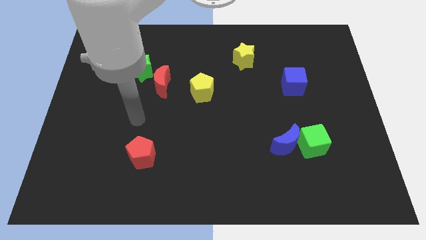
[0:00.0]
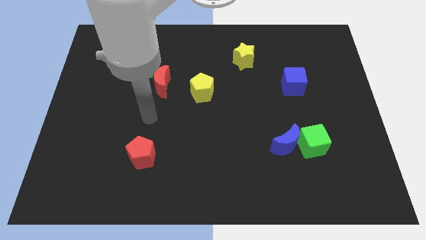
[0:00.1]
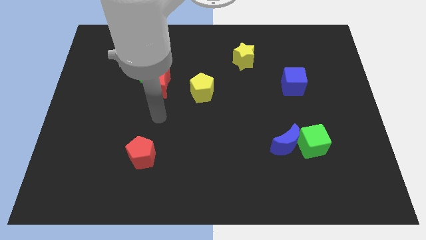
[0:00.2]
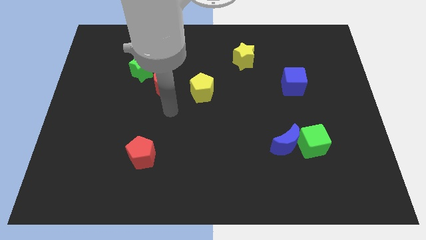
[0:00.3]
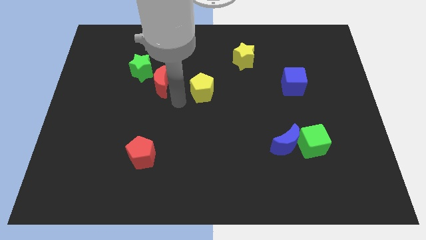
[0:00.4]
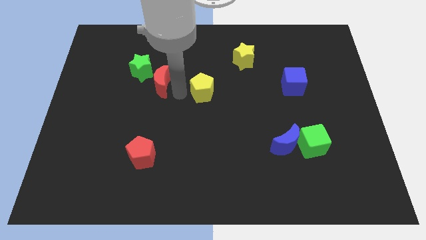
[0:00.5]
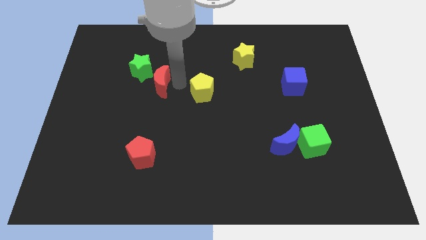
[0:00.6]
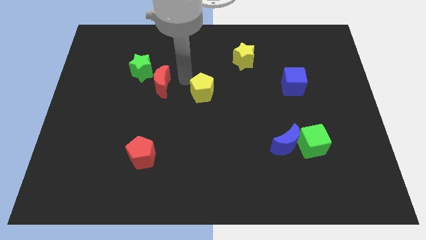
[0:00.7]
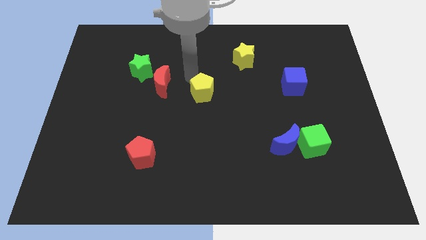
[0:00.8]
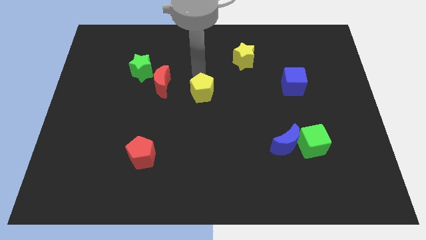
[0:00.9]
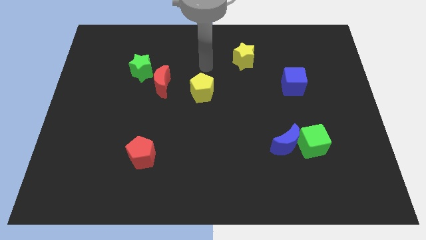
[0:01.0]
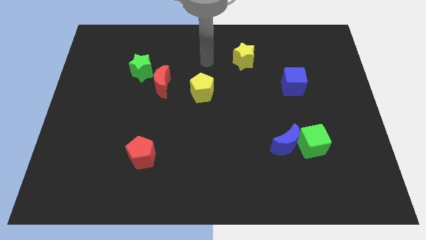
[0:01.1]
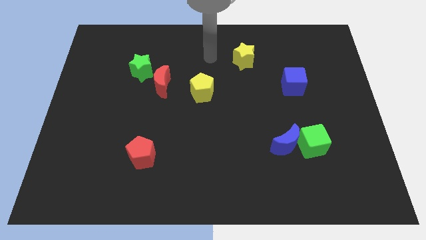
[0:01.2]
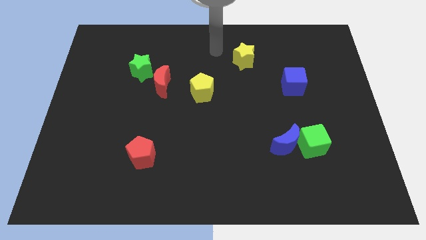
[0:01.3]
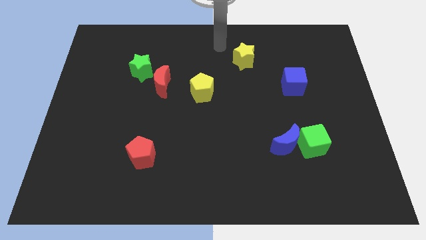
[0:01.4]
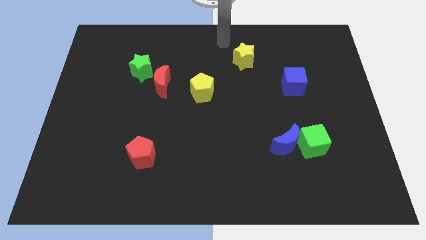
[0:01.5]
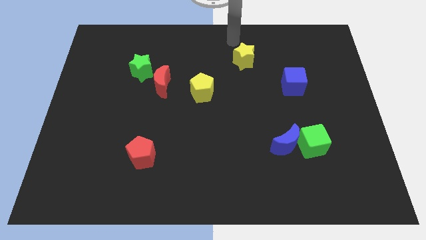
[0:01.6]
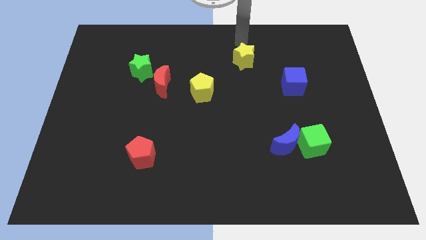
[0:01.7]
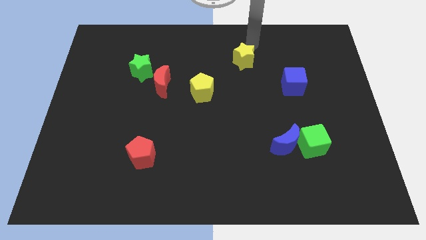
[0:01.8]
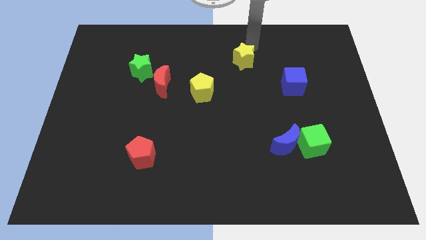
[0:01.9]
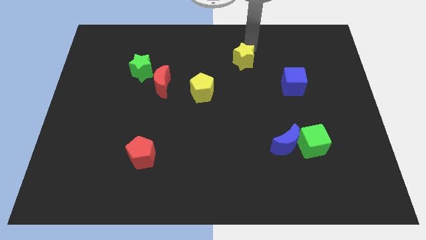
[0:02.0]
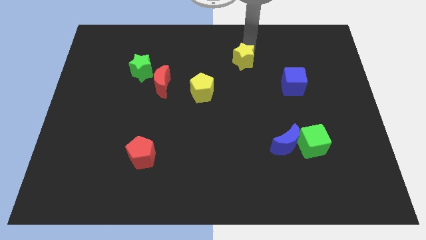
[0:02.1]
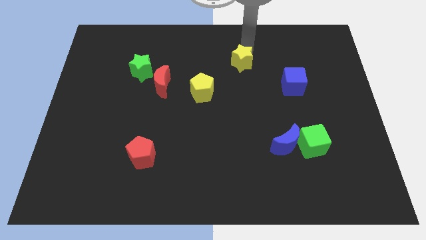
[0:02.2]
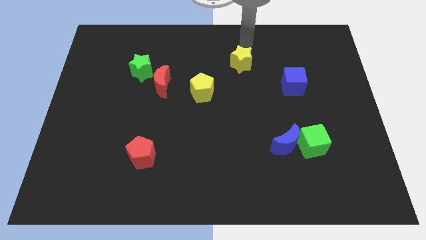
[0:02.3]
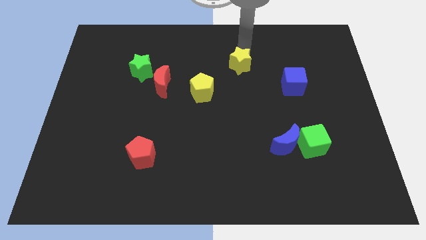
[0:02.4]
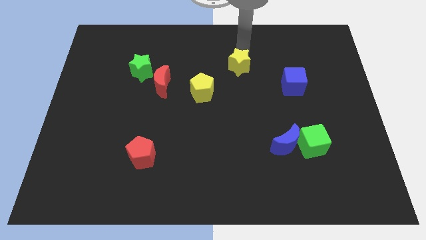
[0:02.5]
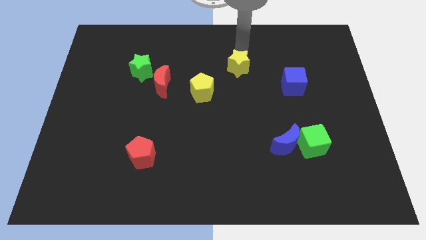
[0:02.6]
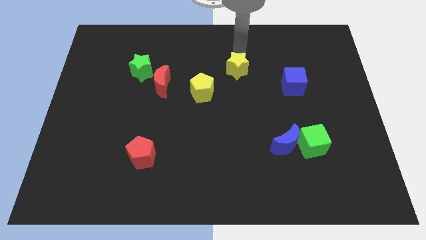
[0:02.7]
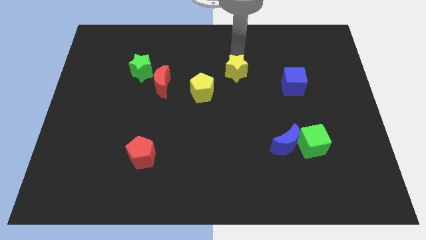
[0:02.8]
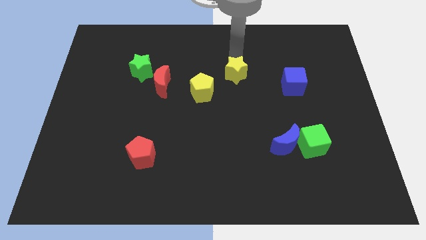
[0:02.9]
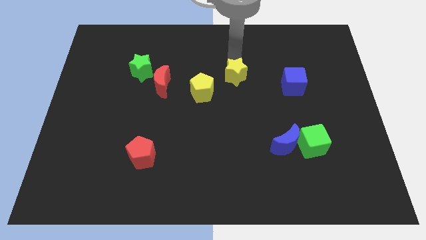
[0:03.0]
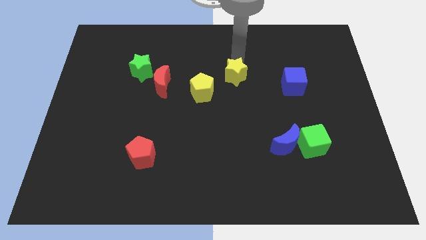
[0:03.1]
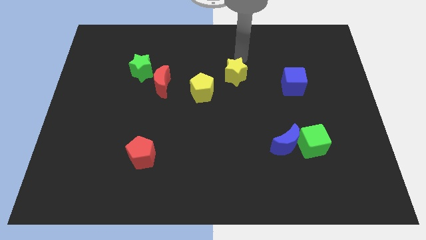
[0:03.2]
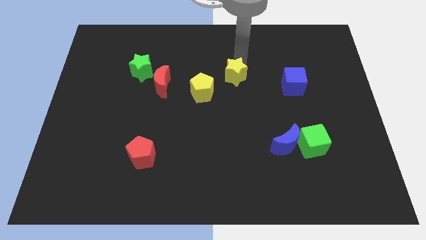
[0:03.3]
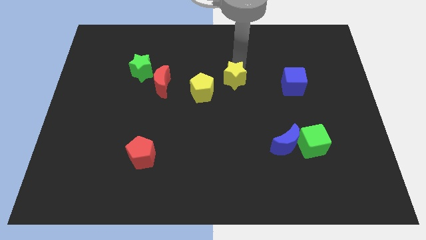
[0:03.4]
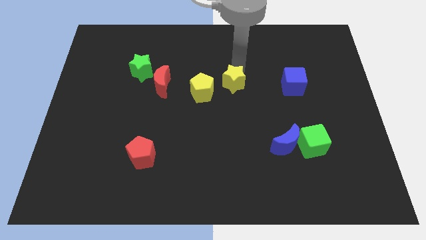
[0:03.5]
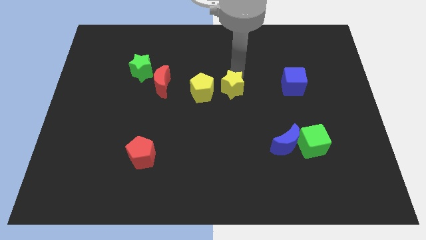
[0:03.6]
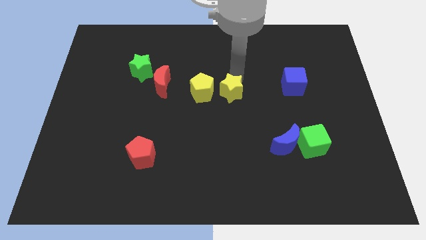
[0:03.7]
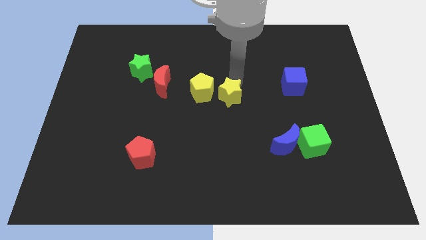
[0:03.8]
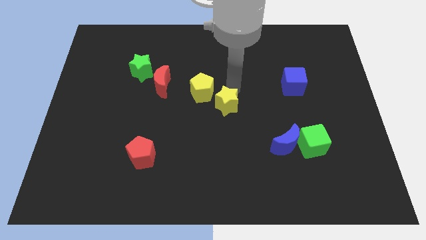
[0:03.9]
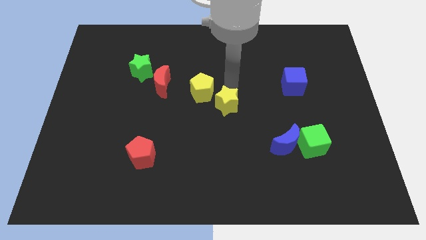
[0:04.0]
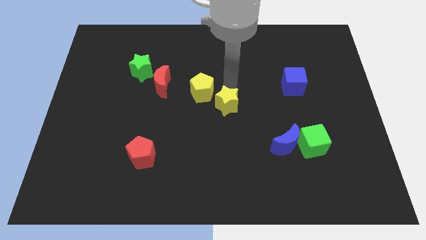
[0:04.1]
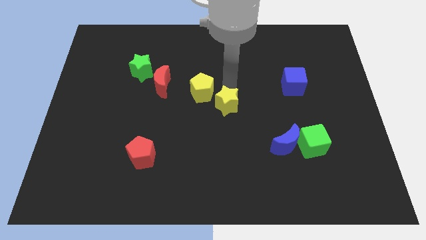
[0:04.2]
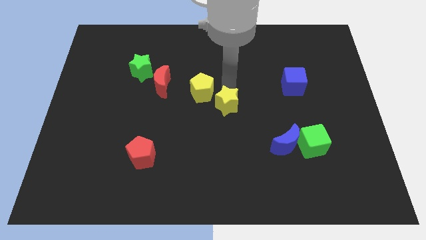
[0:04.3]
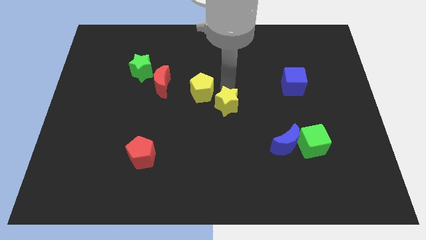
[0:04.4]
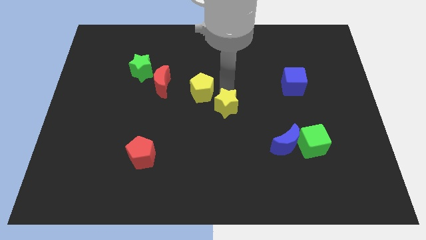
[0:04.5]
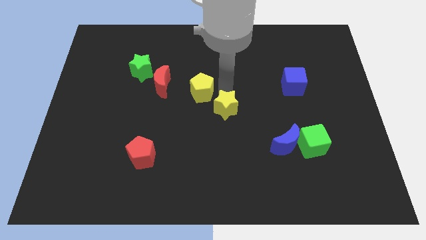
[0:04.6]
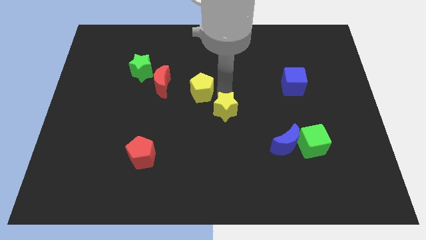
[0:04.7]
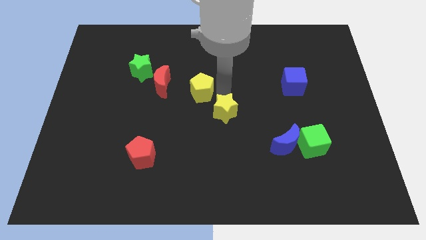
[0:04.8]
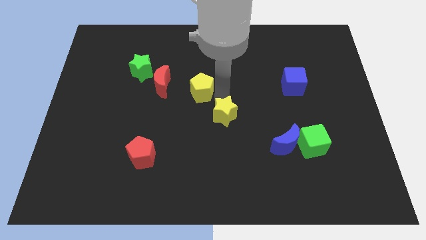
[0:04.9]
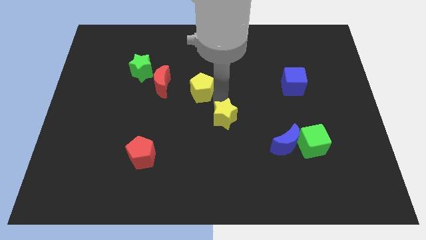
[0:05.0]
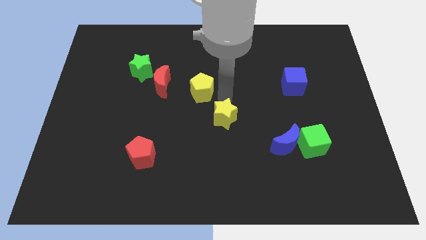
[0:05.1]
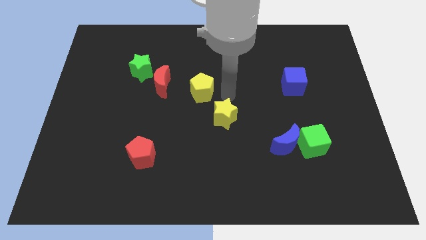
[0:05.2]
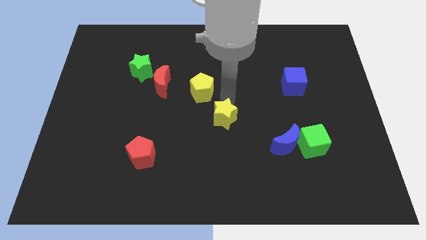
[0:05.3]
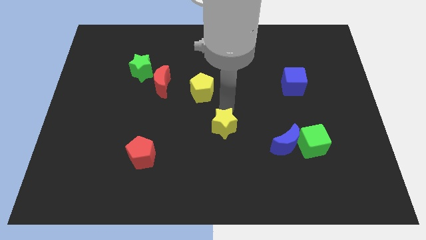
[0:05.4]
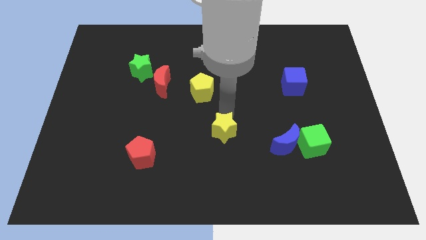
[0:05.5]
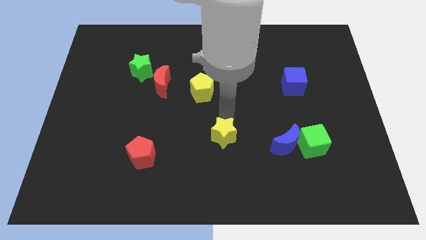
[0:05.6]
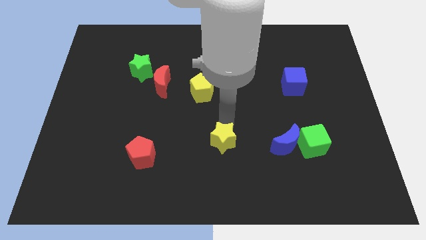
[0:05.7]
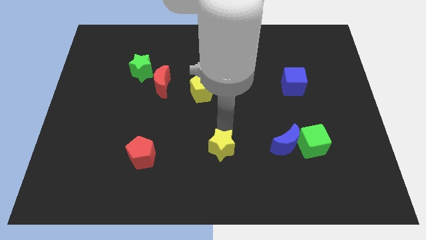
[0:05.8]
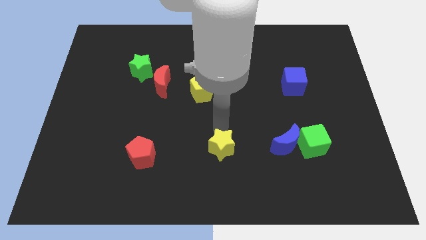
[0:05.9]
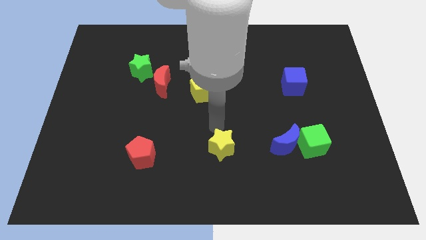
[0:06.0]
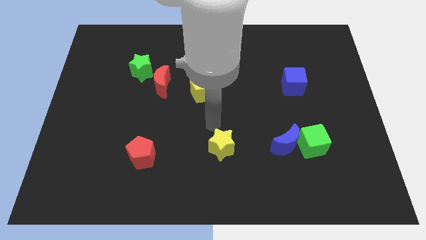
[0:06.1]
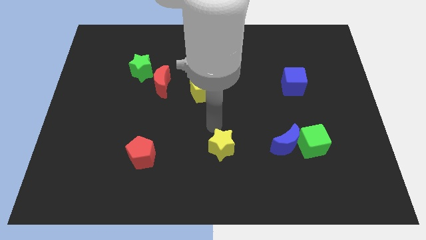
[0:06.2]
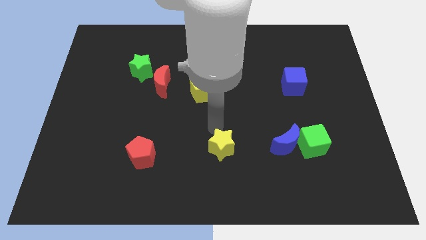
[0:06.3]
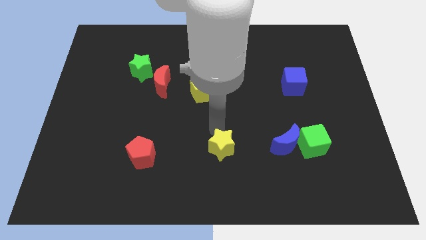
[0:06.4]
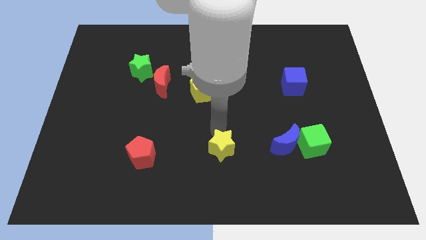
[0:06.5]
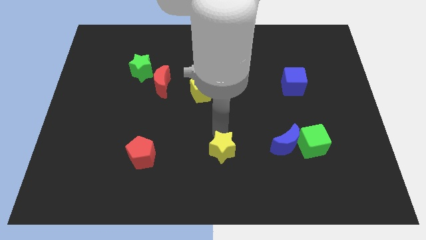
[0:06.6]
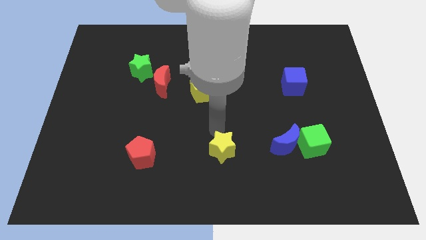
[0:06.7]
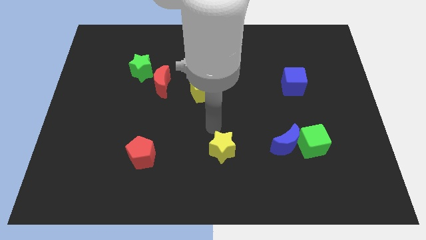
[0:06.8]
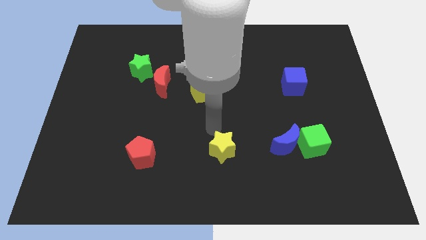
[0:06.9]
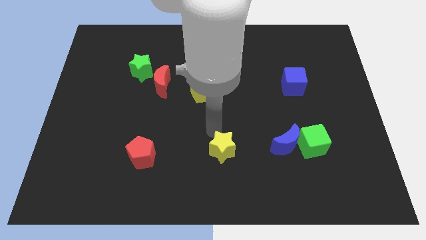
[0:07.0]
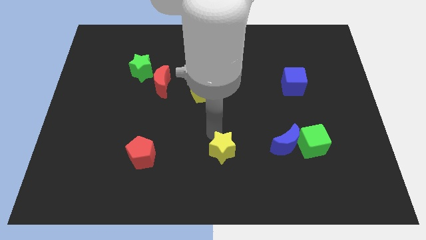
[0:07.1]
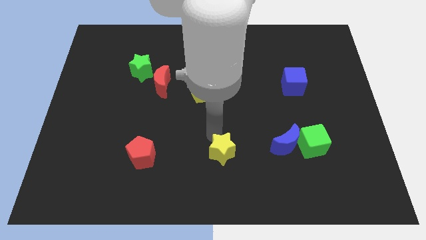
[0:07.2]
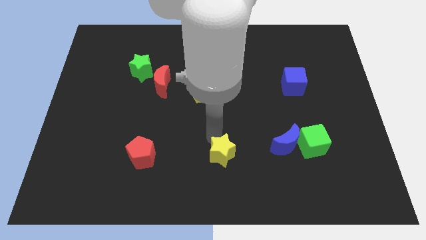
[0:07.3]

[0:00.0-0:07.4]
push the yellow star to the bottom
